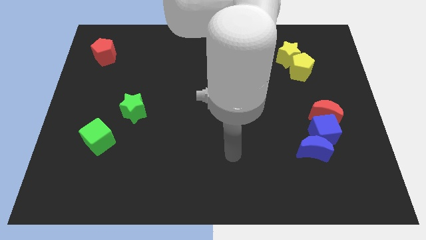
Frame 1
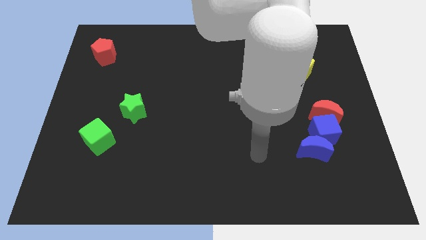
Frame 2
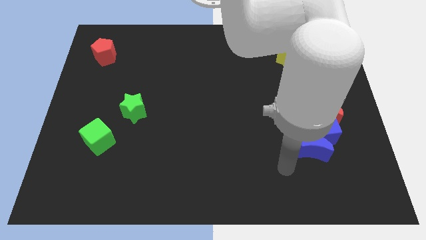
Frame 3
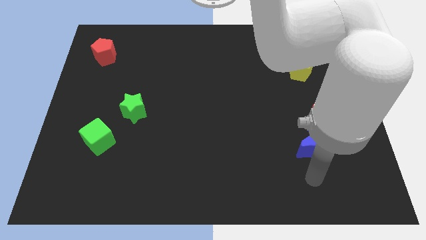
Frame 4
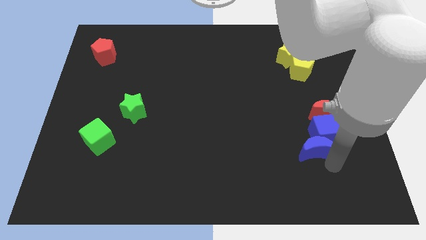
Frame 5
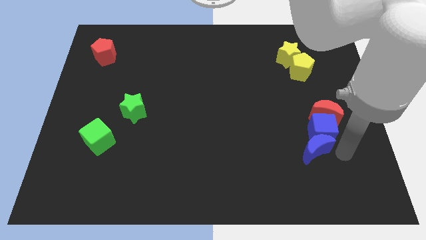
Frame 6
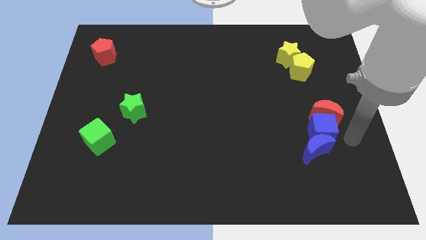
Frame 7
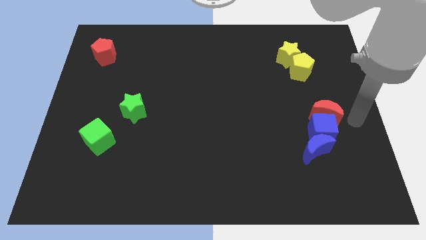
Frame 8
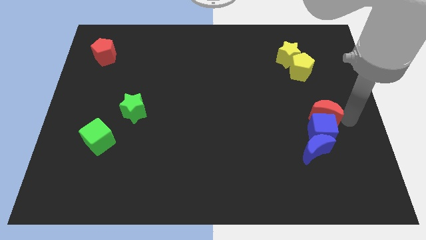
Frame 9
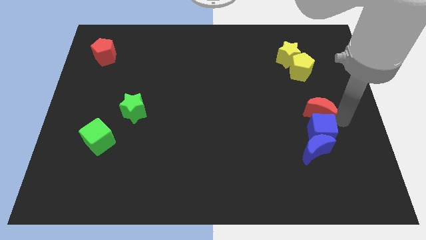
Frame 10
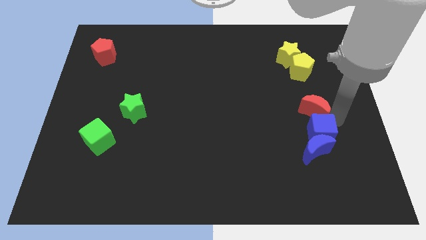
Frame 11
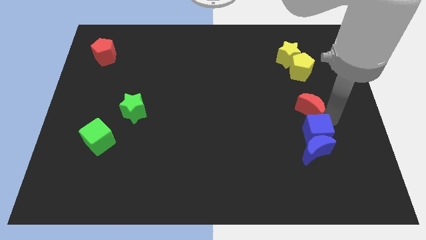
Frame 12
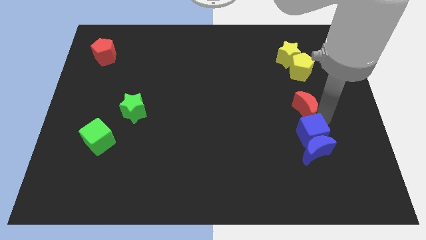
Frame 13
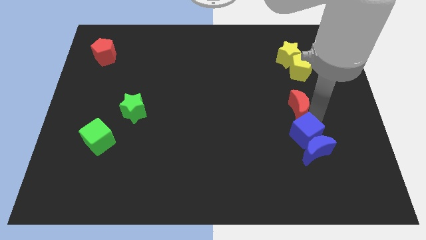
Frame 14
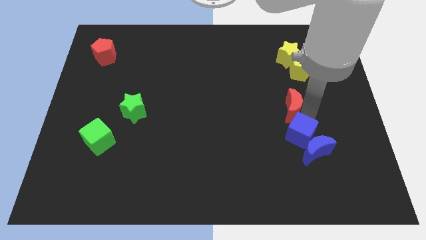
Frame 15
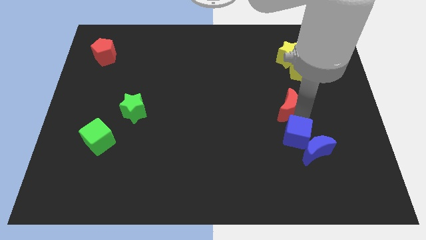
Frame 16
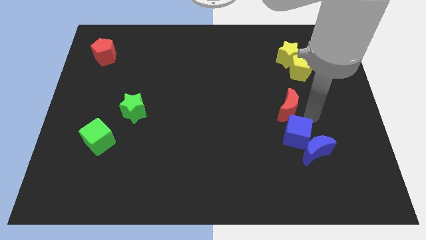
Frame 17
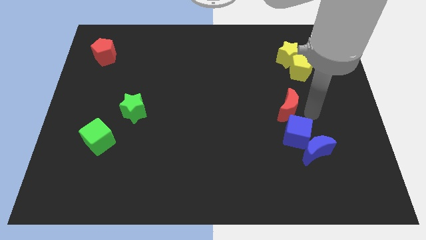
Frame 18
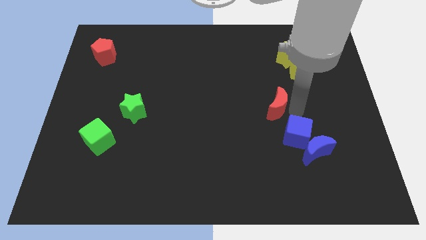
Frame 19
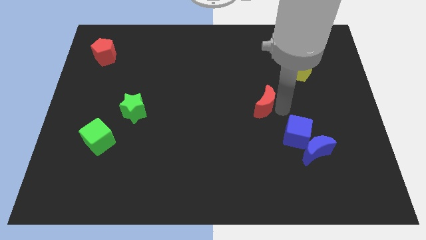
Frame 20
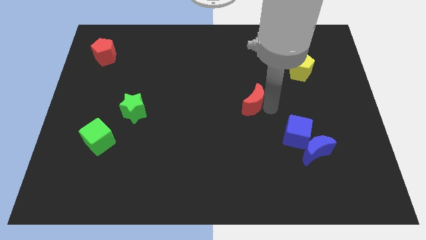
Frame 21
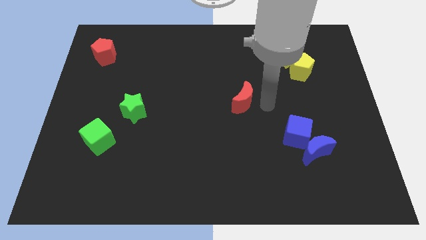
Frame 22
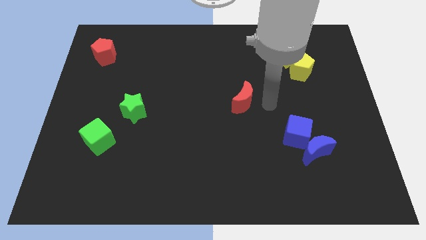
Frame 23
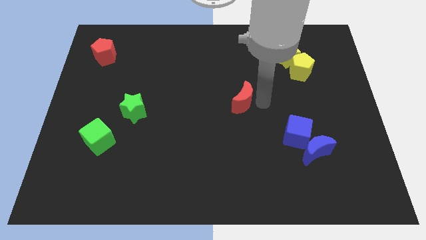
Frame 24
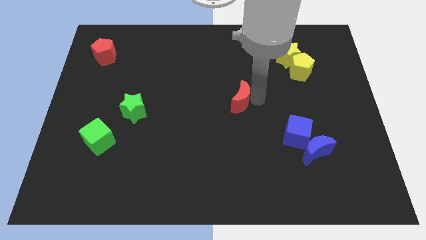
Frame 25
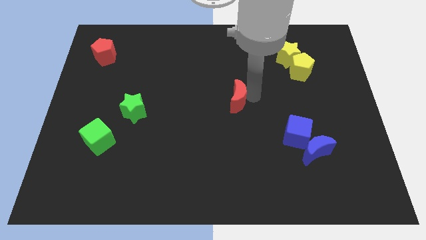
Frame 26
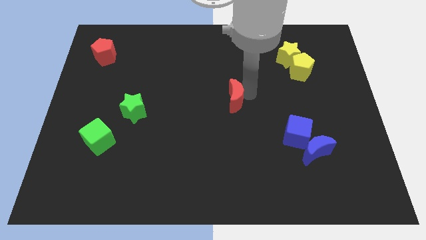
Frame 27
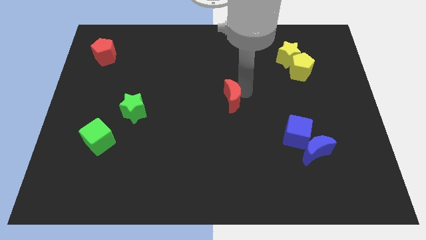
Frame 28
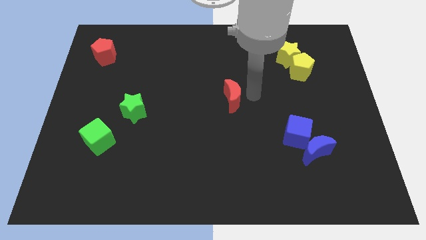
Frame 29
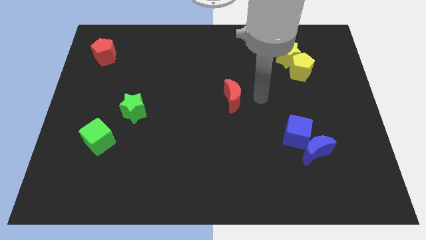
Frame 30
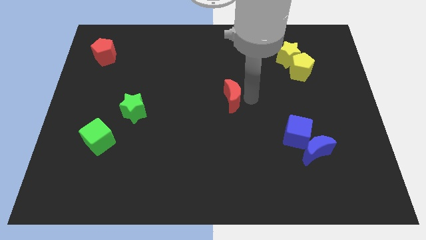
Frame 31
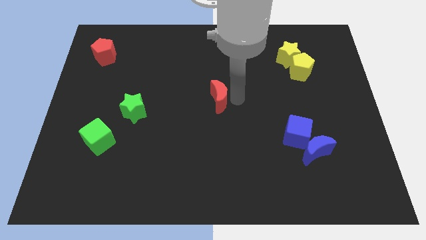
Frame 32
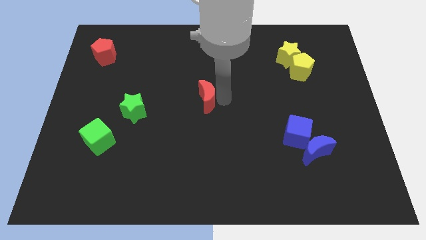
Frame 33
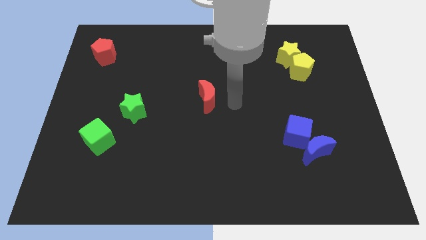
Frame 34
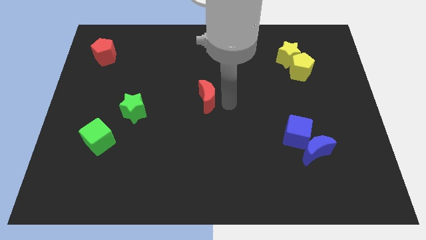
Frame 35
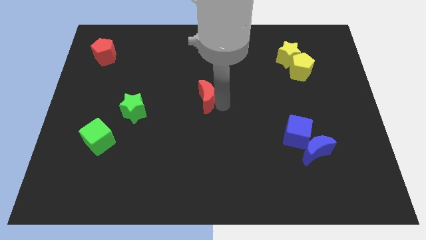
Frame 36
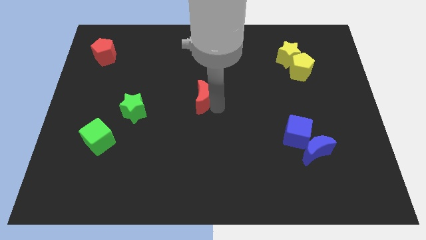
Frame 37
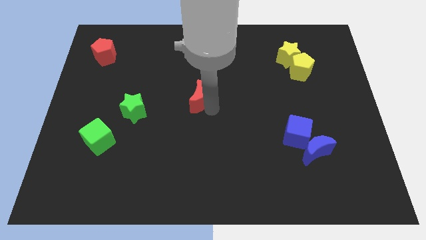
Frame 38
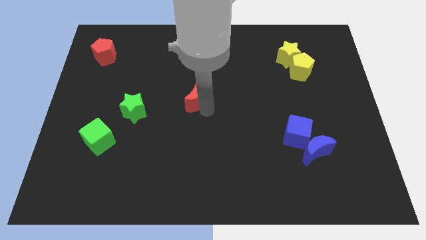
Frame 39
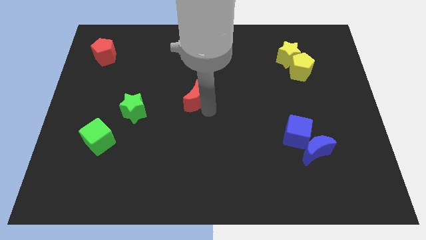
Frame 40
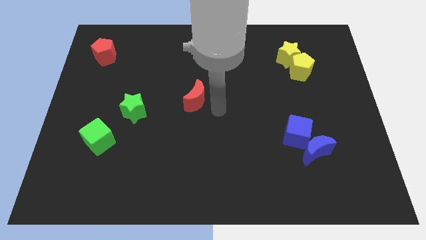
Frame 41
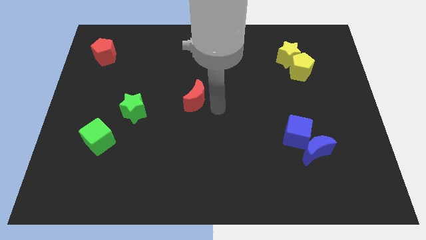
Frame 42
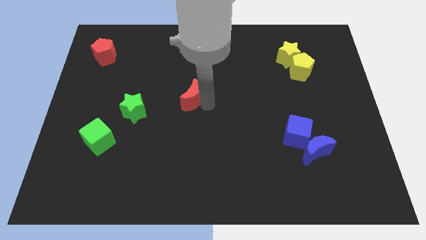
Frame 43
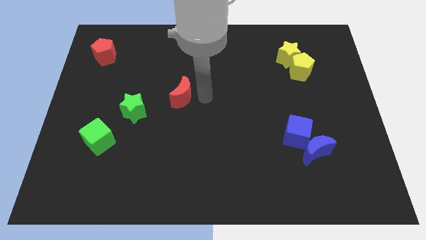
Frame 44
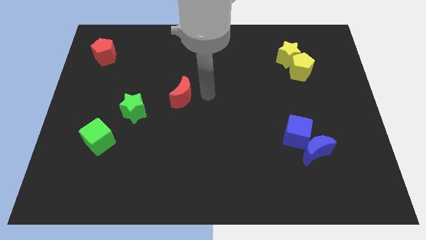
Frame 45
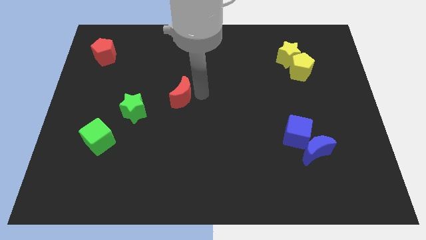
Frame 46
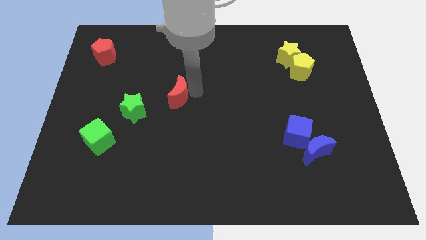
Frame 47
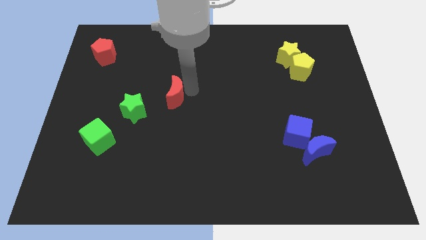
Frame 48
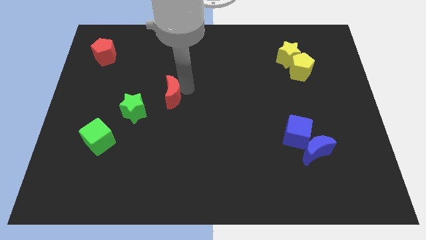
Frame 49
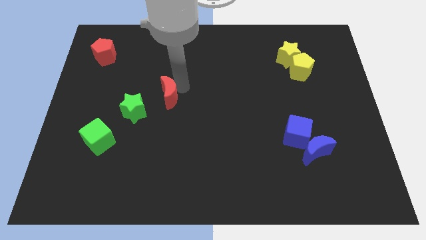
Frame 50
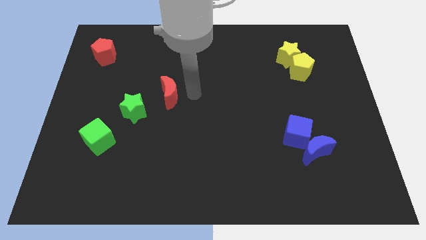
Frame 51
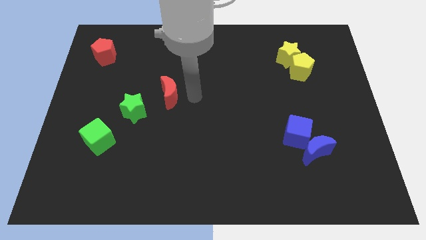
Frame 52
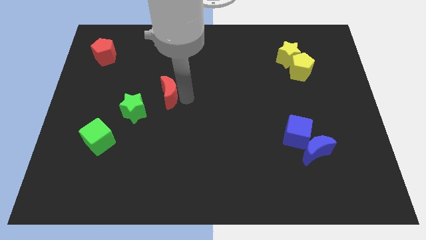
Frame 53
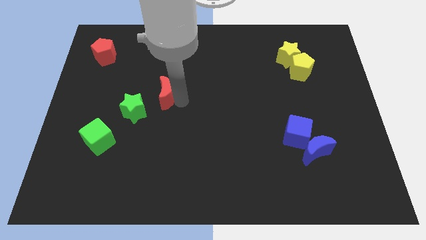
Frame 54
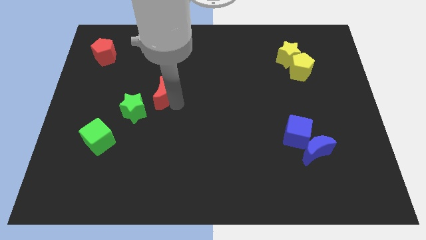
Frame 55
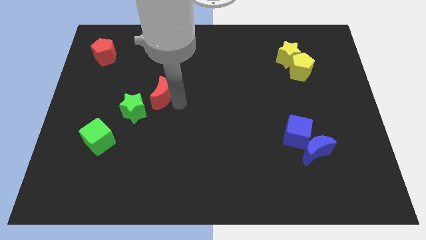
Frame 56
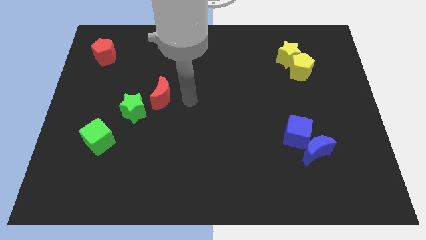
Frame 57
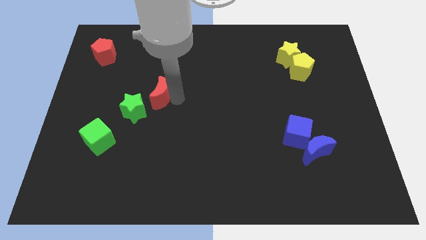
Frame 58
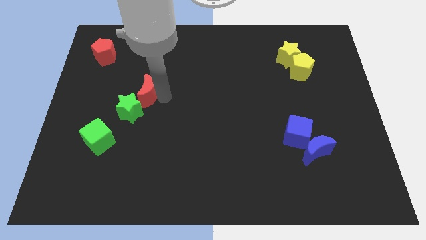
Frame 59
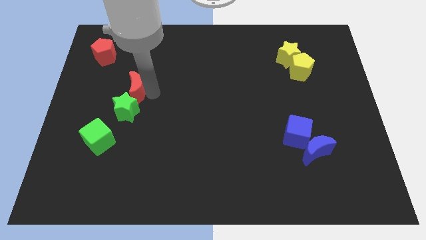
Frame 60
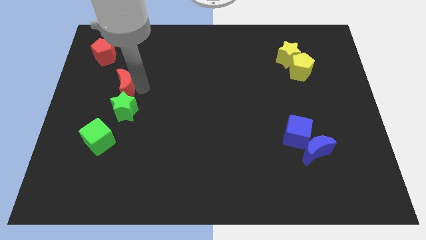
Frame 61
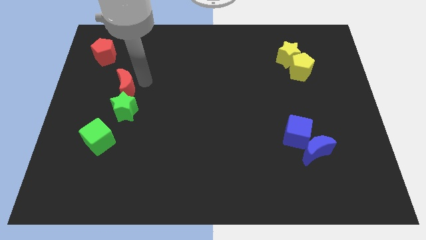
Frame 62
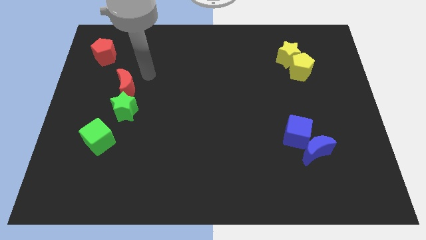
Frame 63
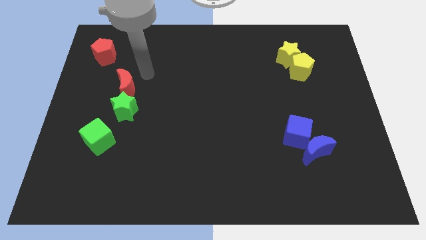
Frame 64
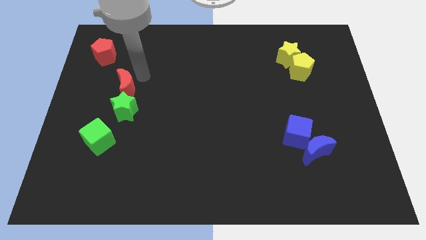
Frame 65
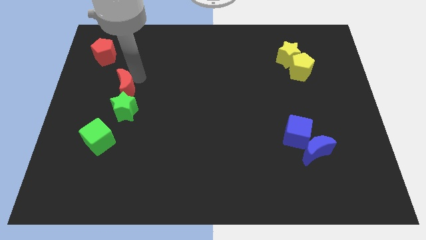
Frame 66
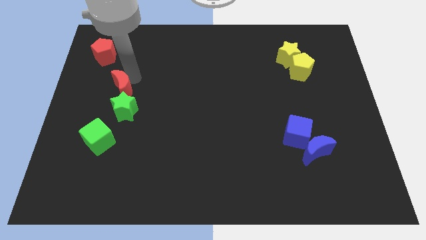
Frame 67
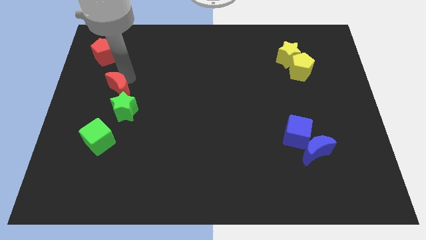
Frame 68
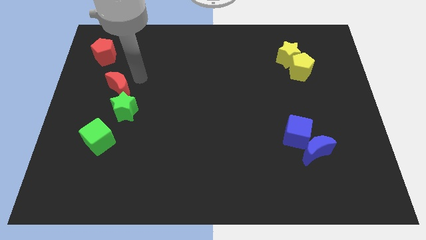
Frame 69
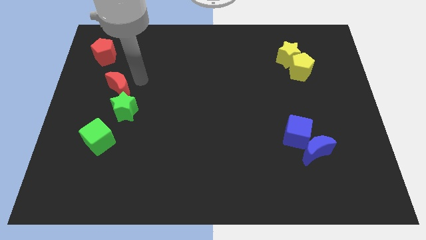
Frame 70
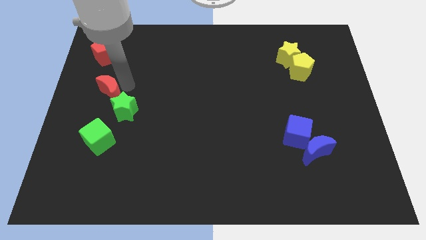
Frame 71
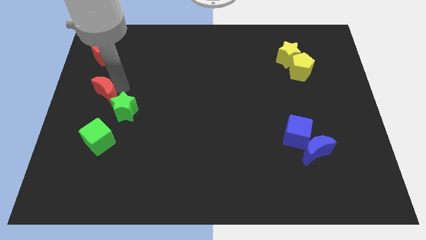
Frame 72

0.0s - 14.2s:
slide the red moon to the center left
